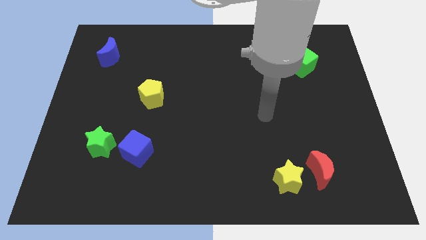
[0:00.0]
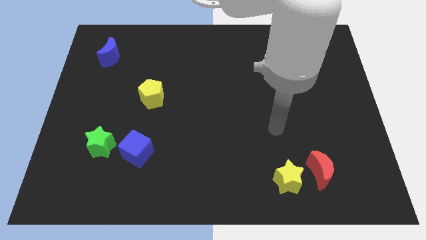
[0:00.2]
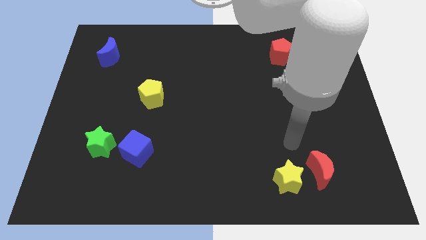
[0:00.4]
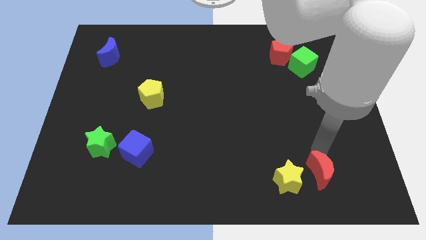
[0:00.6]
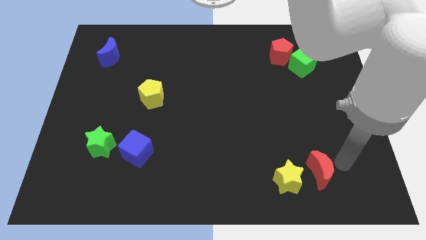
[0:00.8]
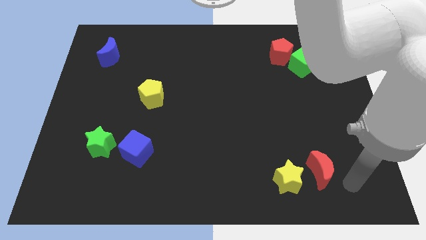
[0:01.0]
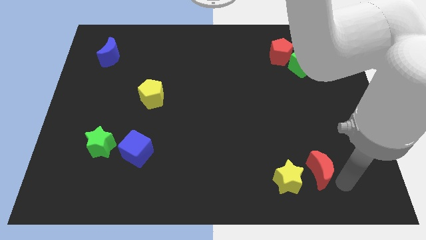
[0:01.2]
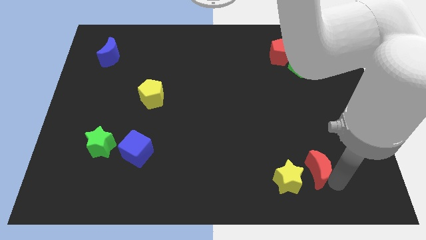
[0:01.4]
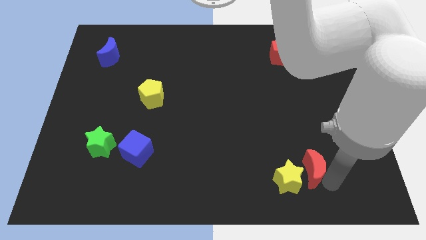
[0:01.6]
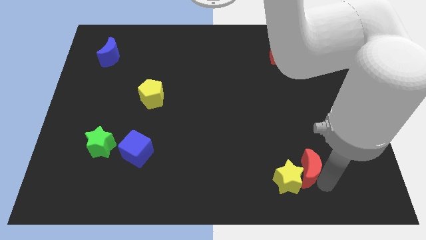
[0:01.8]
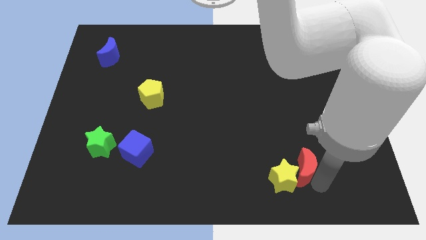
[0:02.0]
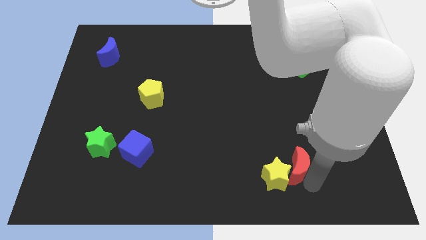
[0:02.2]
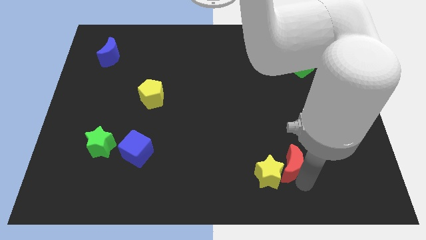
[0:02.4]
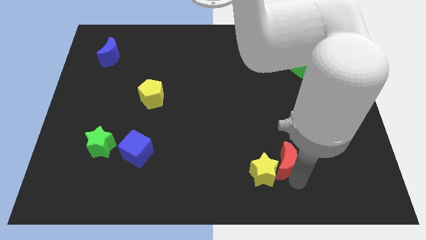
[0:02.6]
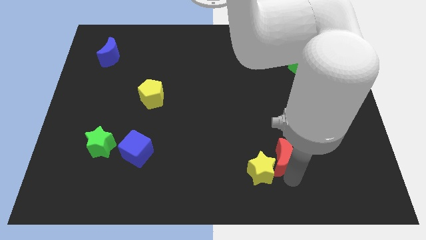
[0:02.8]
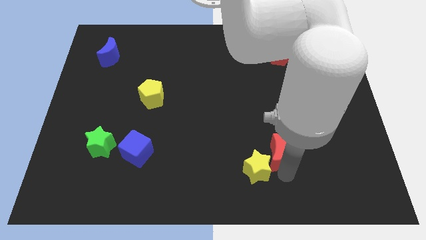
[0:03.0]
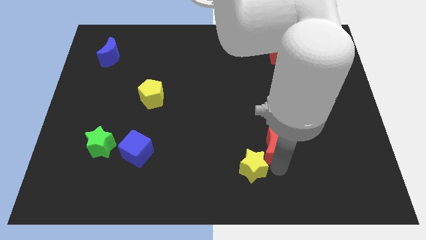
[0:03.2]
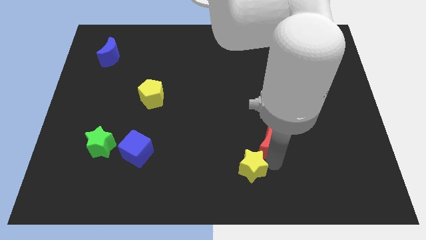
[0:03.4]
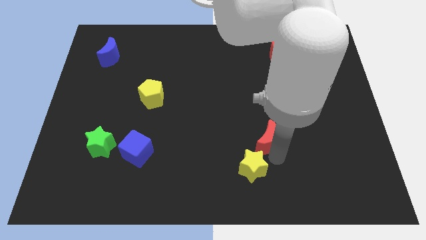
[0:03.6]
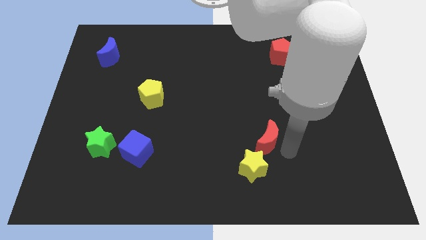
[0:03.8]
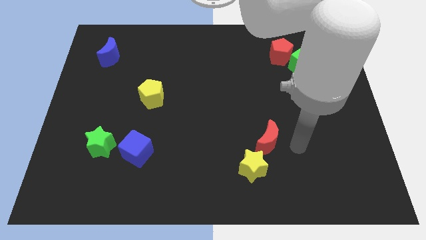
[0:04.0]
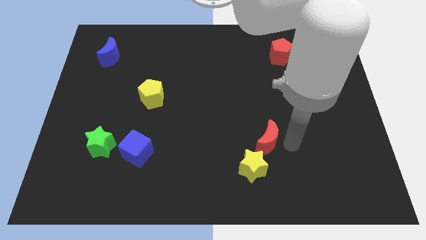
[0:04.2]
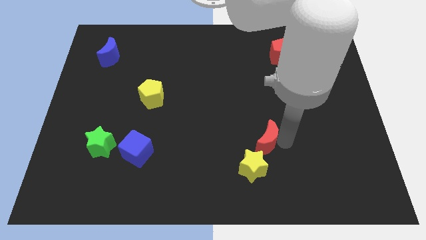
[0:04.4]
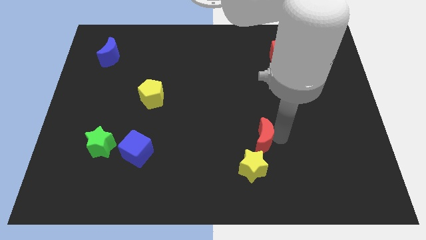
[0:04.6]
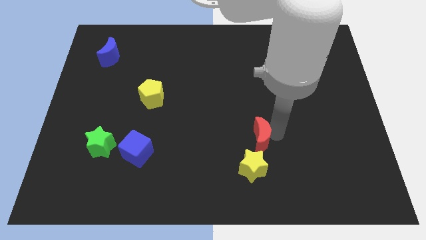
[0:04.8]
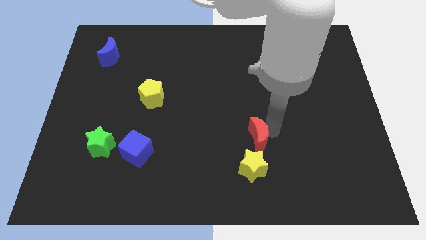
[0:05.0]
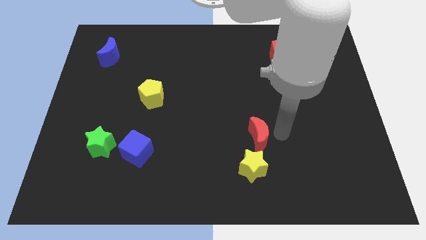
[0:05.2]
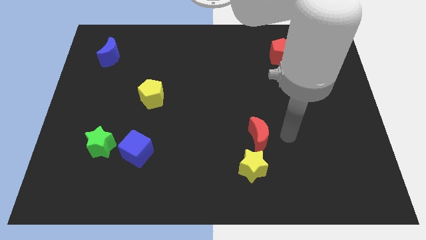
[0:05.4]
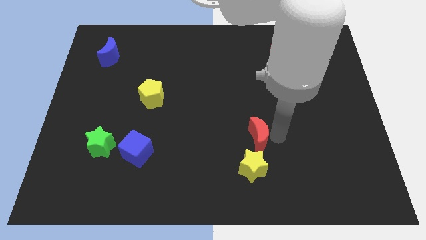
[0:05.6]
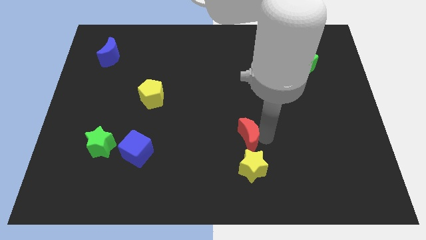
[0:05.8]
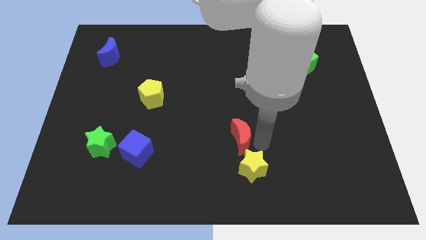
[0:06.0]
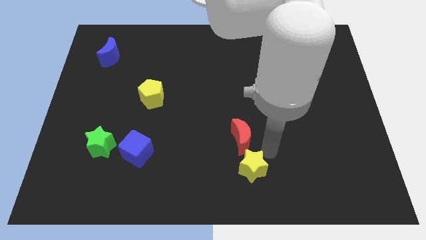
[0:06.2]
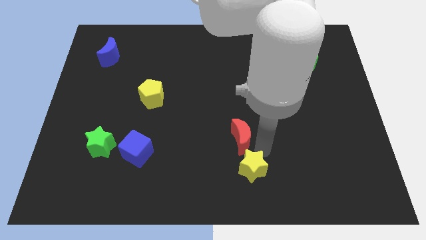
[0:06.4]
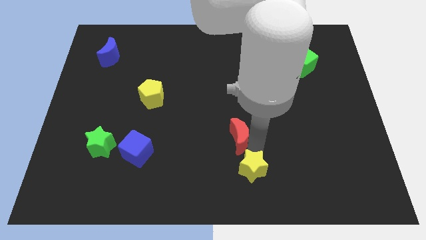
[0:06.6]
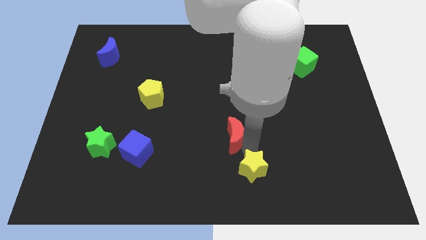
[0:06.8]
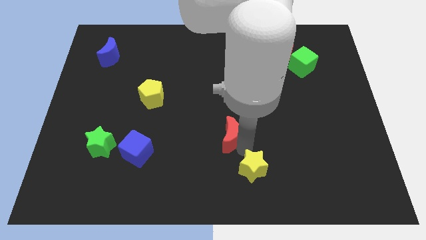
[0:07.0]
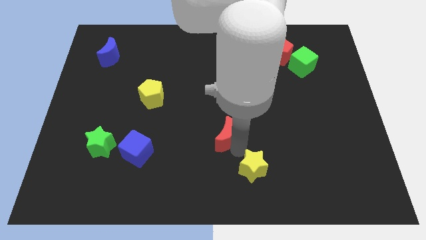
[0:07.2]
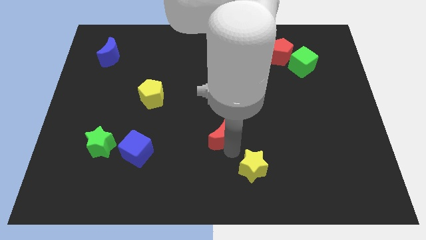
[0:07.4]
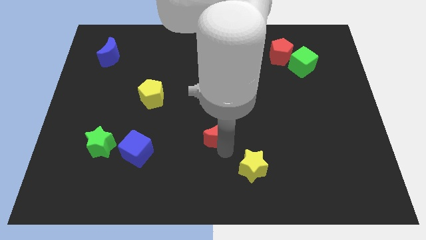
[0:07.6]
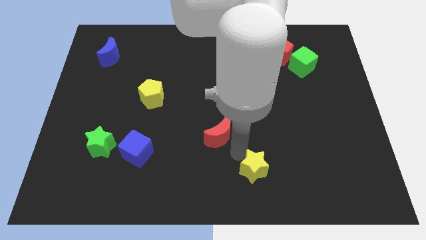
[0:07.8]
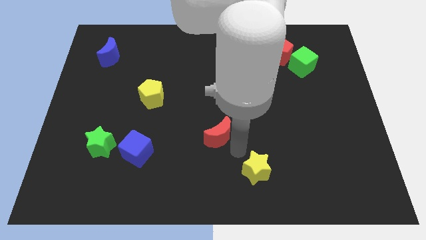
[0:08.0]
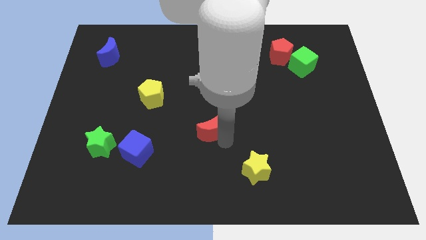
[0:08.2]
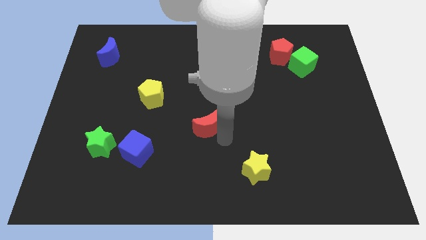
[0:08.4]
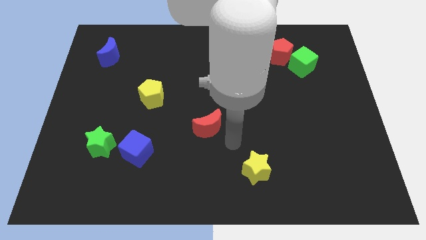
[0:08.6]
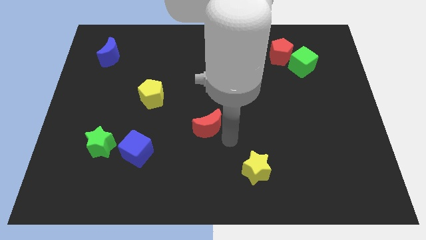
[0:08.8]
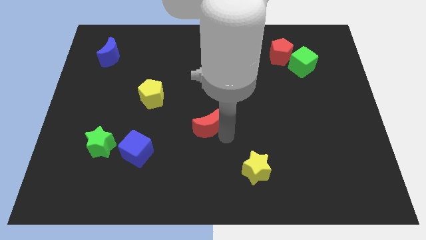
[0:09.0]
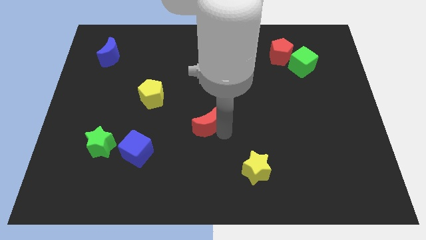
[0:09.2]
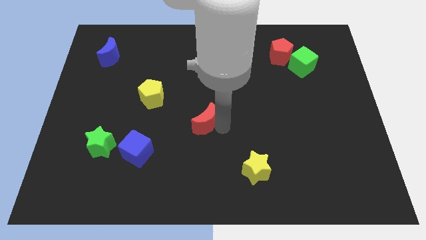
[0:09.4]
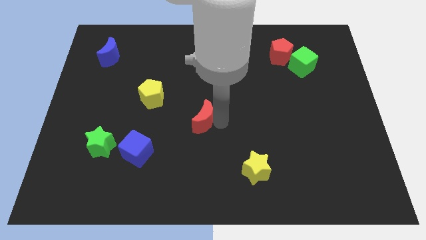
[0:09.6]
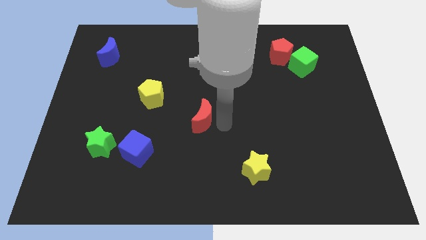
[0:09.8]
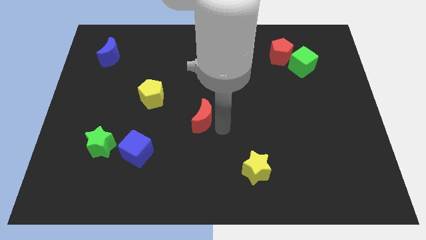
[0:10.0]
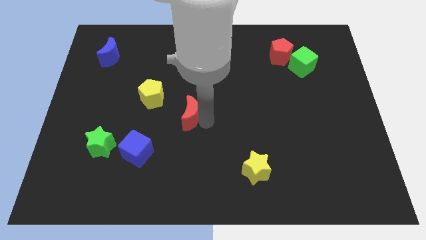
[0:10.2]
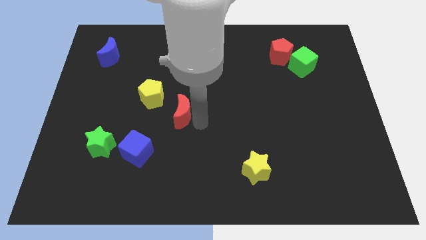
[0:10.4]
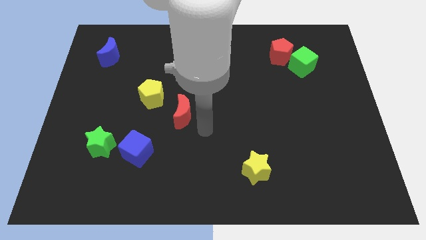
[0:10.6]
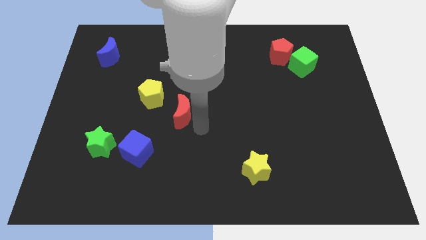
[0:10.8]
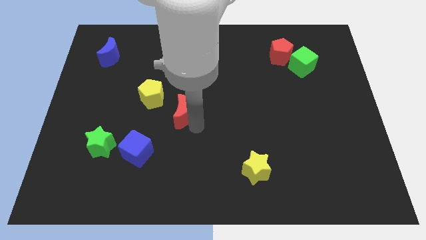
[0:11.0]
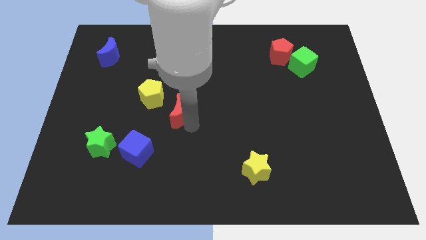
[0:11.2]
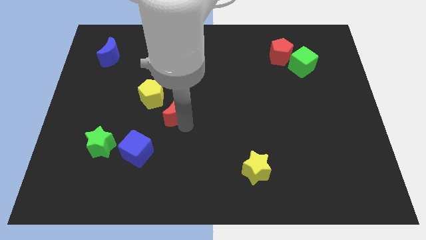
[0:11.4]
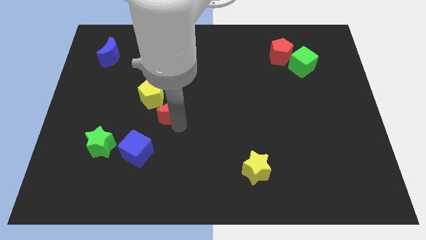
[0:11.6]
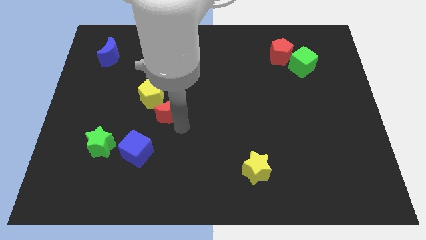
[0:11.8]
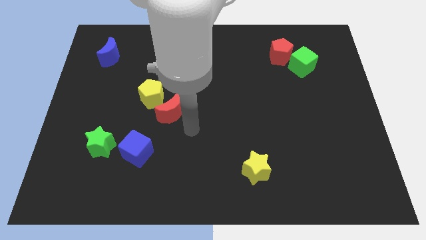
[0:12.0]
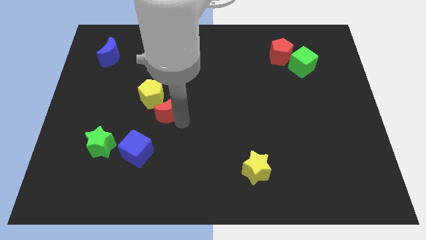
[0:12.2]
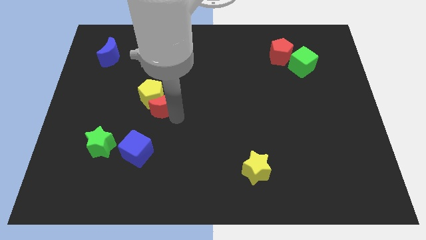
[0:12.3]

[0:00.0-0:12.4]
move the red moon to the yellow pentagon

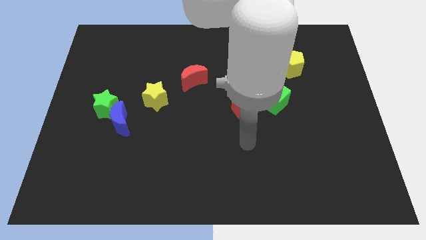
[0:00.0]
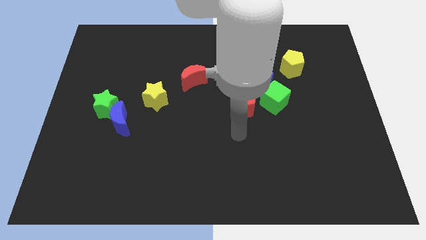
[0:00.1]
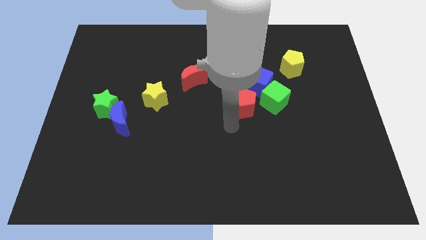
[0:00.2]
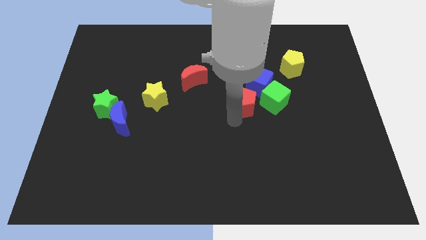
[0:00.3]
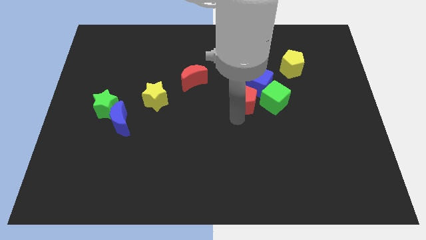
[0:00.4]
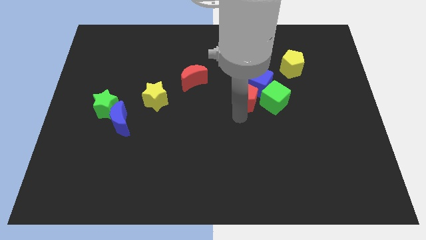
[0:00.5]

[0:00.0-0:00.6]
move the red pentagon close to the blue cube
